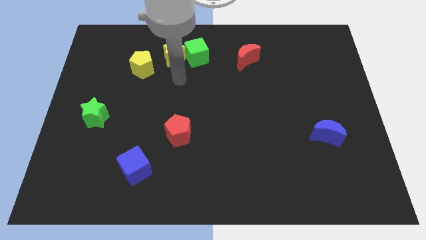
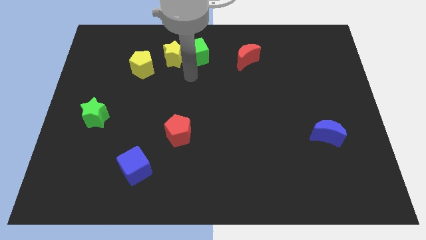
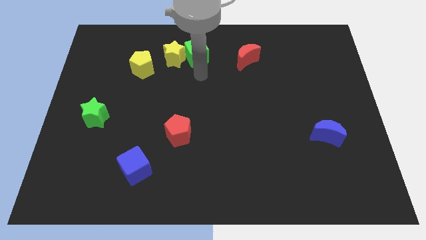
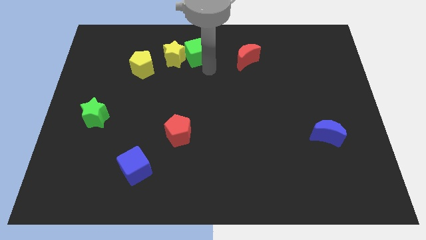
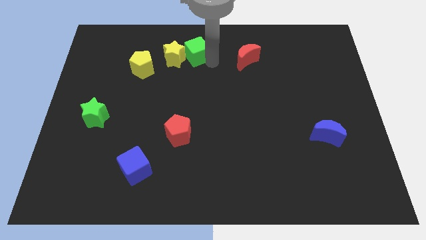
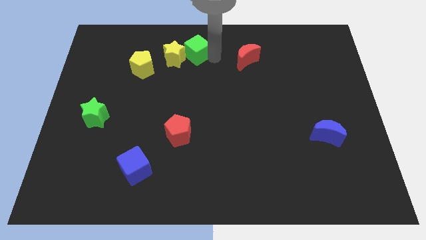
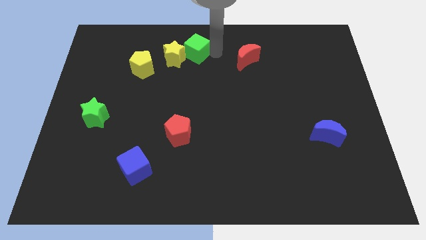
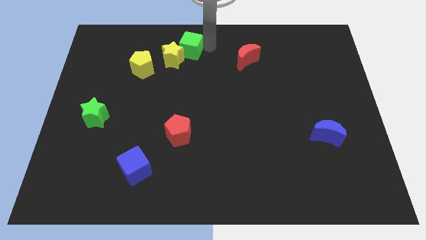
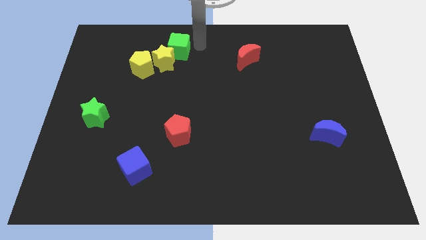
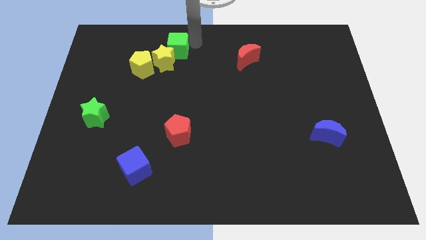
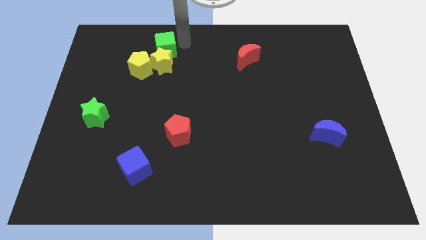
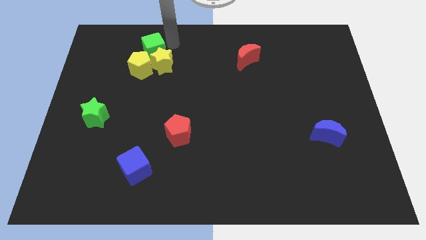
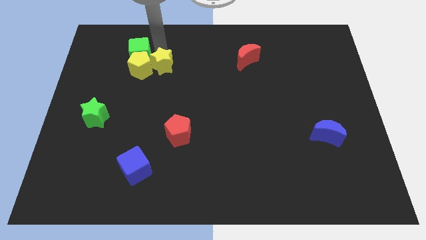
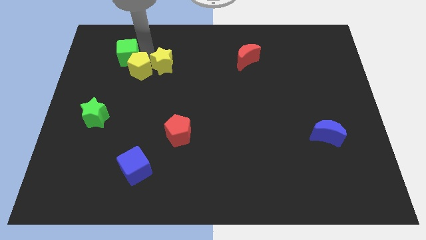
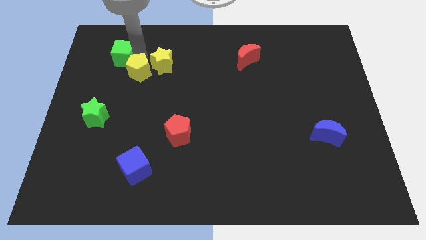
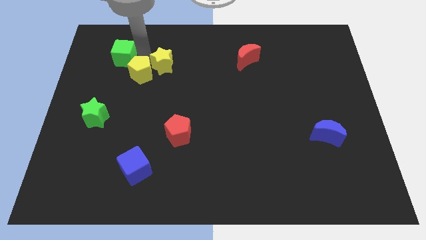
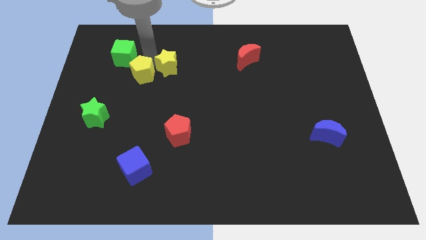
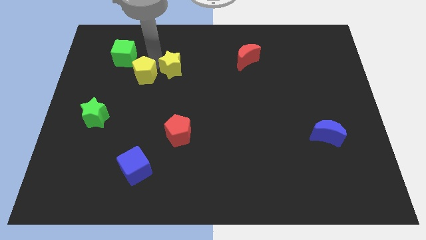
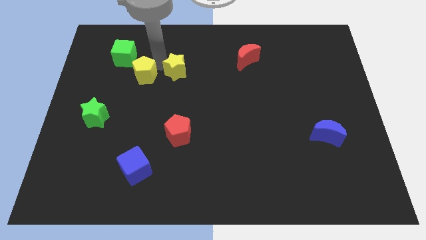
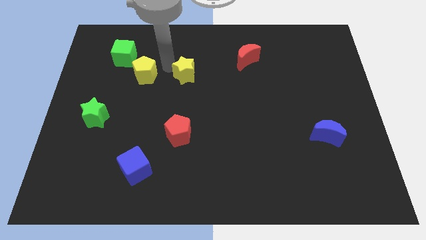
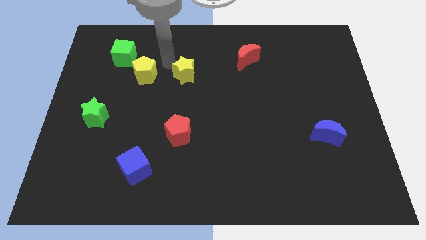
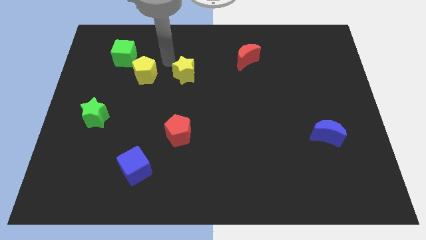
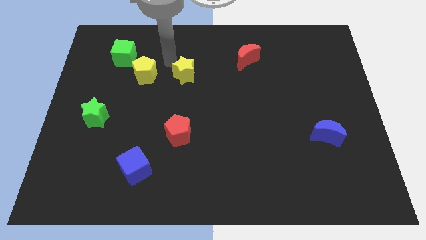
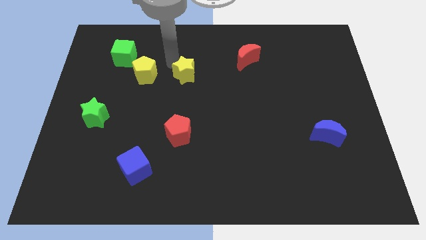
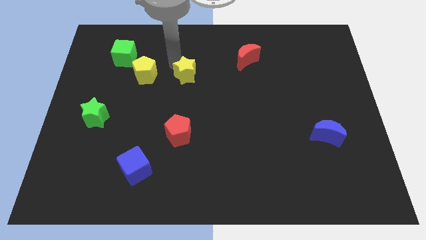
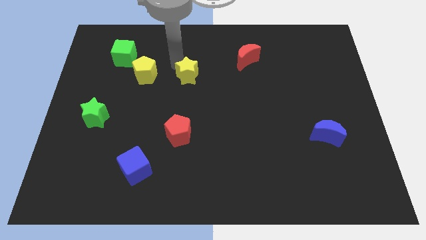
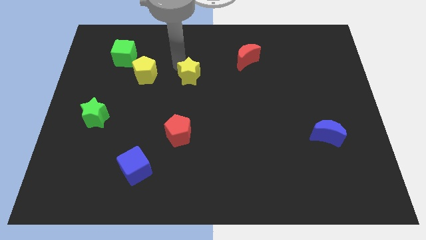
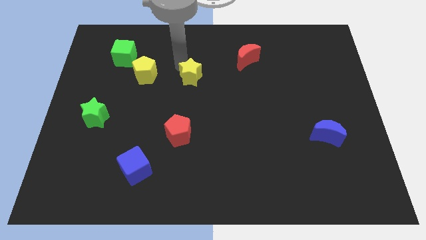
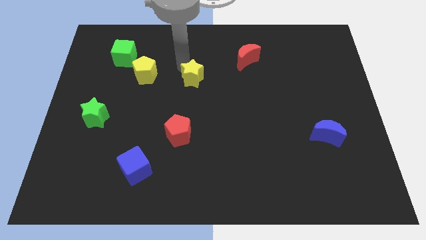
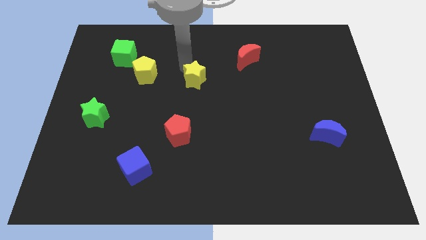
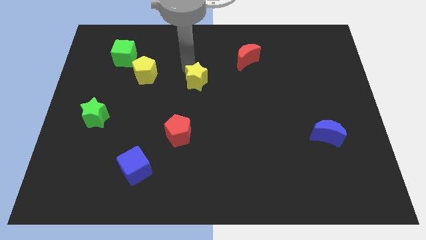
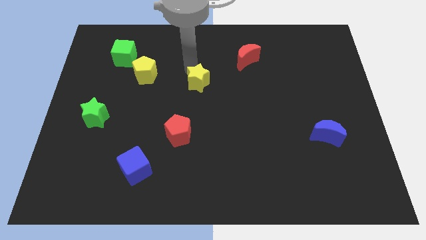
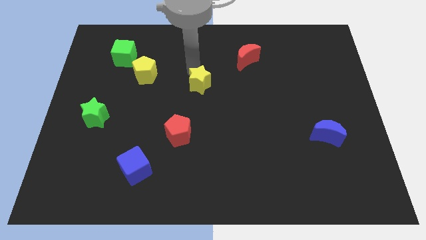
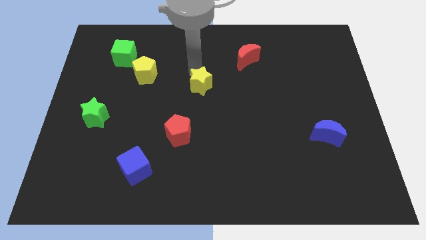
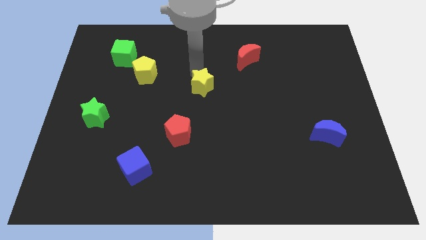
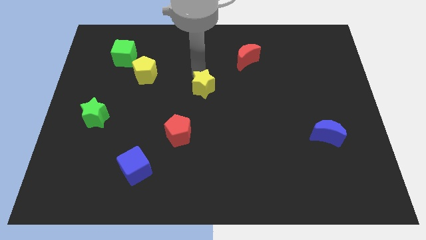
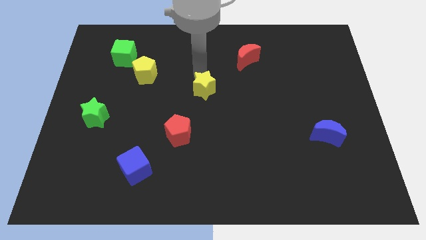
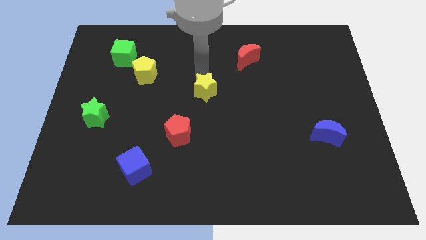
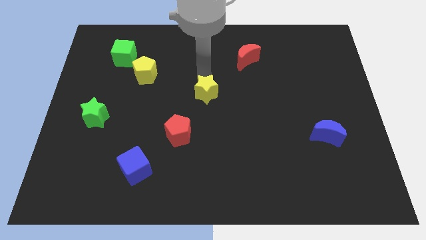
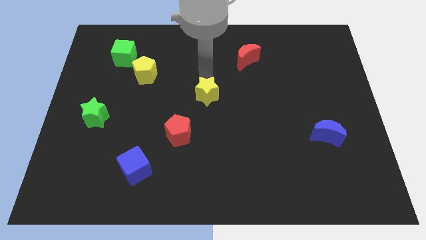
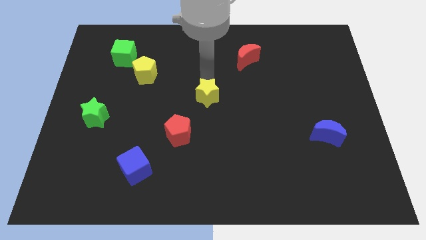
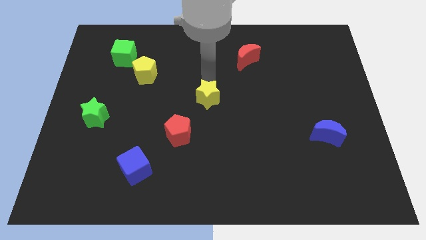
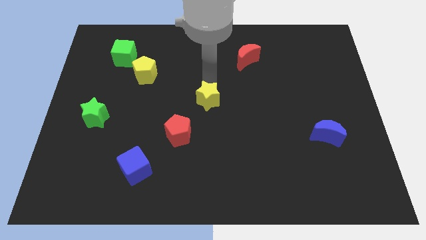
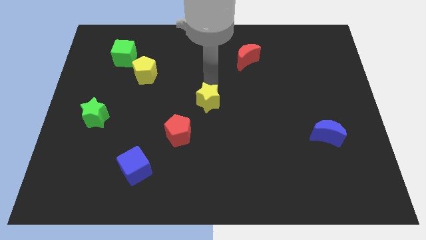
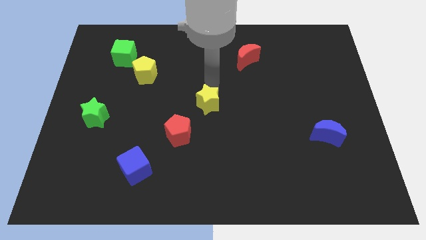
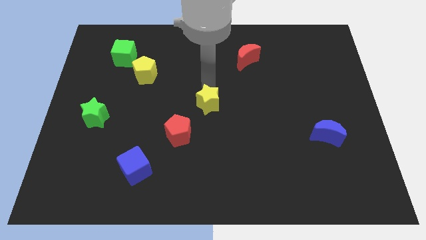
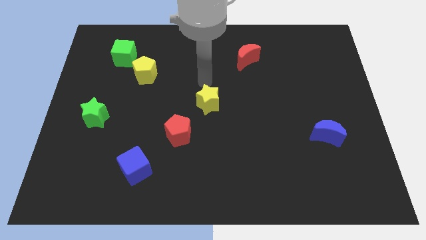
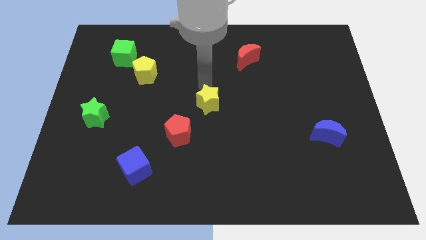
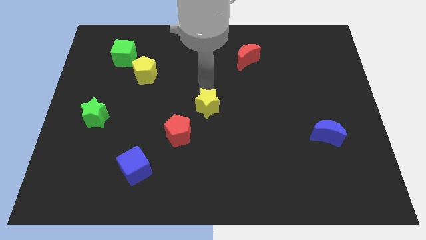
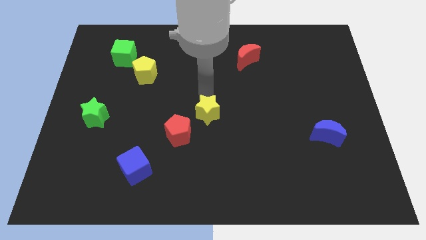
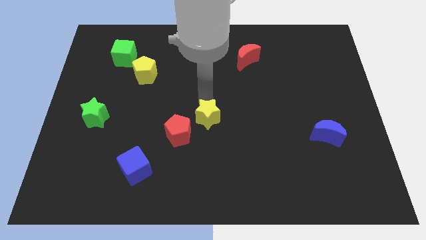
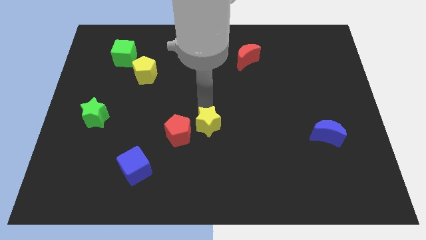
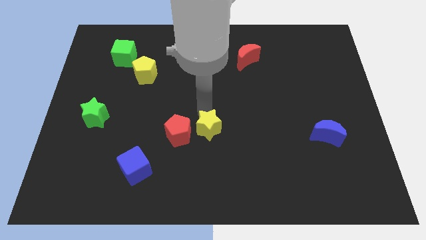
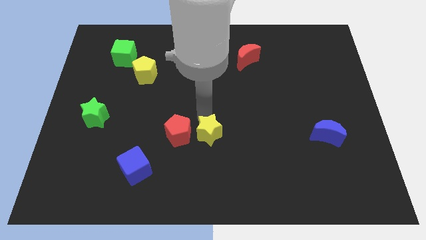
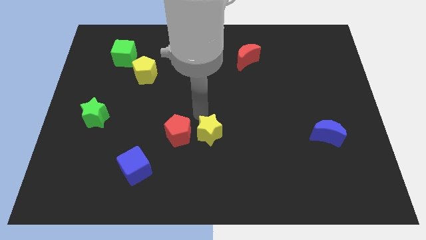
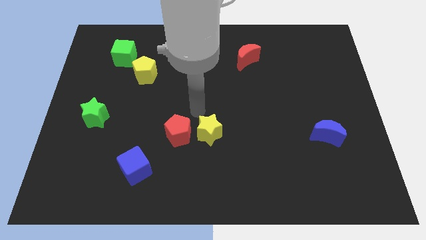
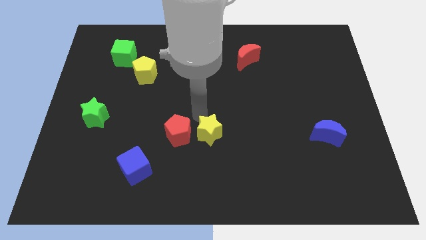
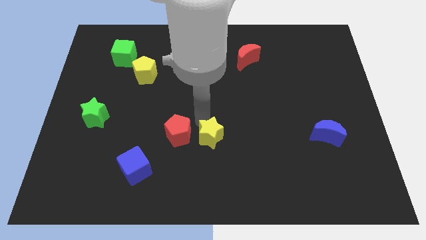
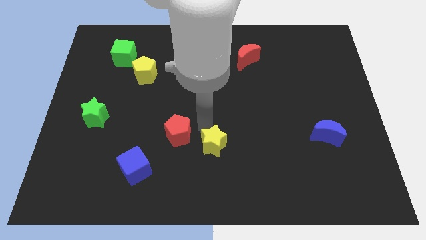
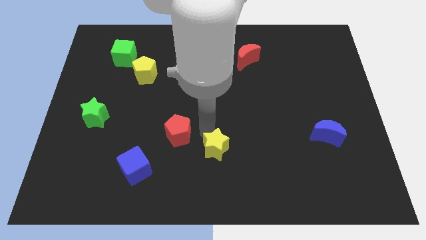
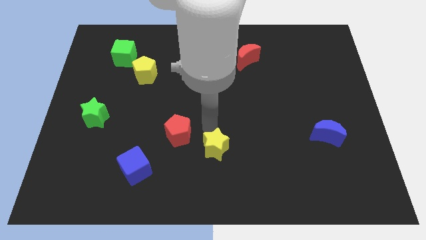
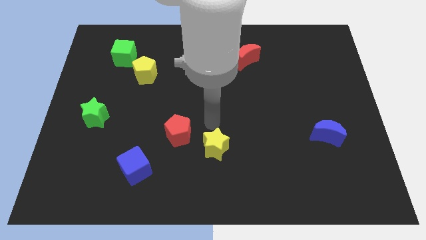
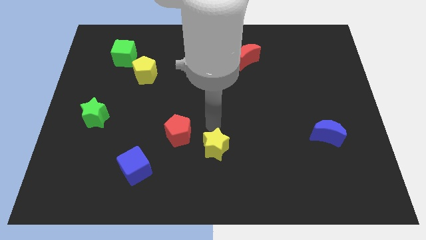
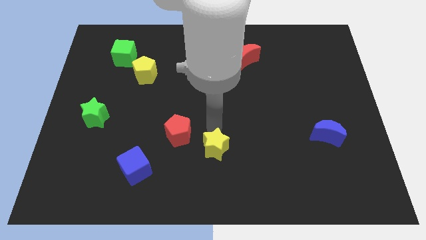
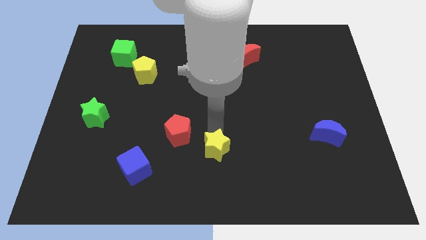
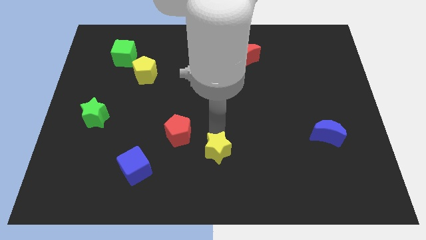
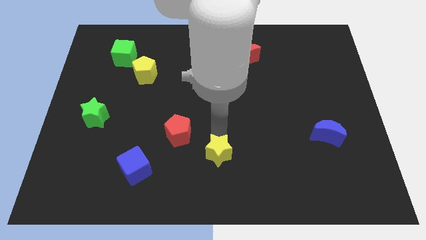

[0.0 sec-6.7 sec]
put the yellow star to the bottom
